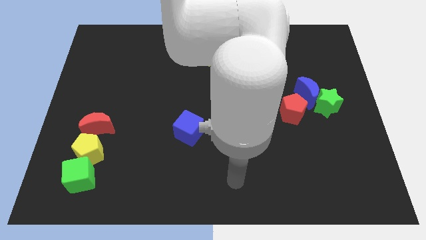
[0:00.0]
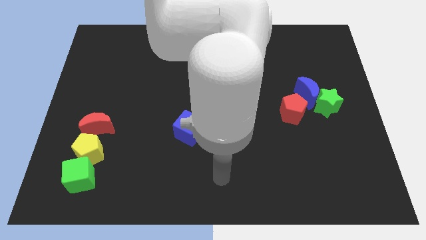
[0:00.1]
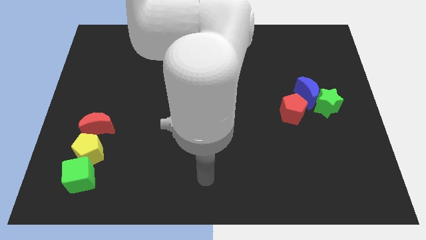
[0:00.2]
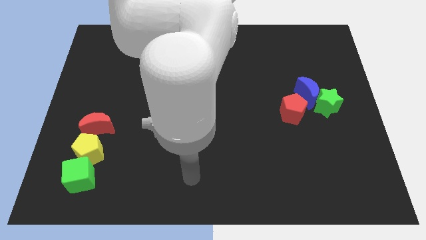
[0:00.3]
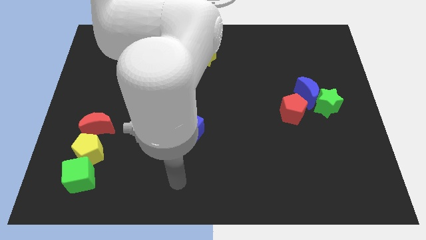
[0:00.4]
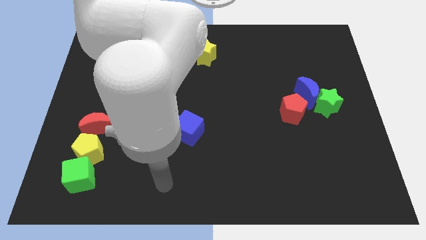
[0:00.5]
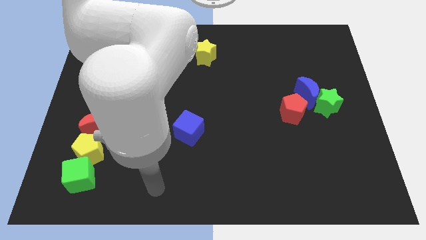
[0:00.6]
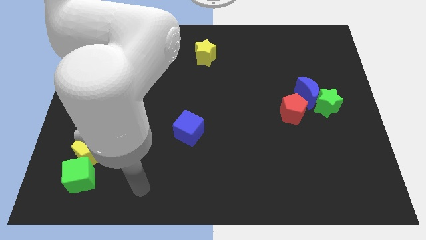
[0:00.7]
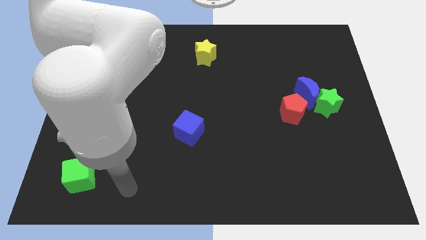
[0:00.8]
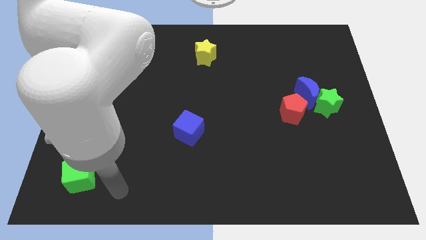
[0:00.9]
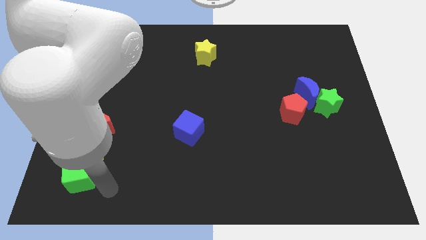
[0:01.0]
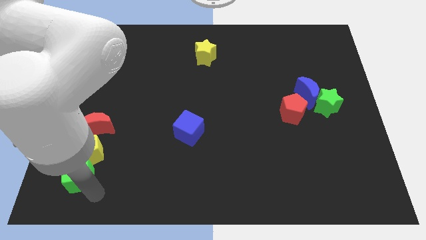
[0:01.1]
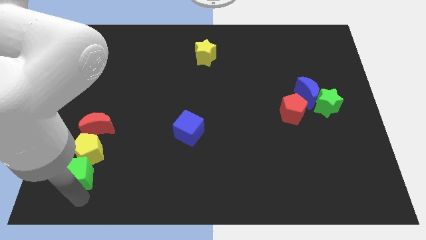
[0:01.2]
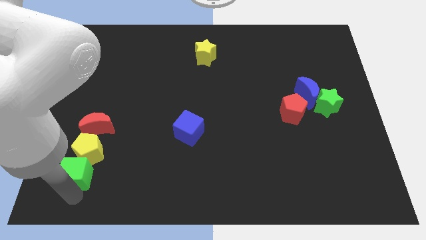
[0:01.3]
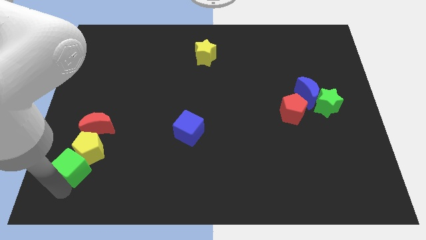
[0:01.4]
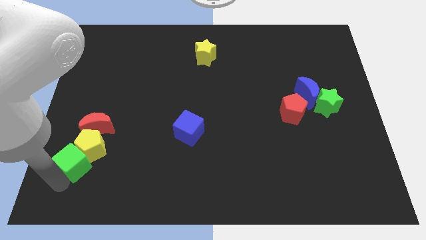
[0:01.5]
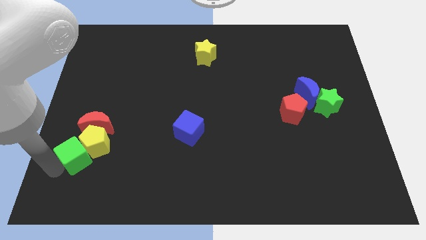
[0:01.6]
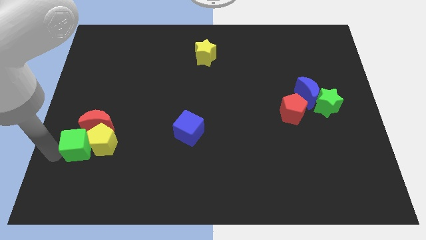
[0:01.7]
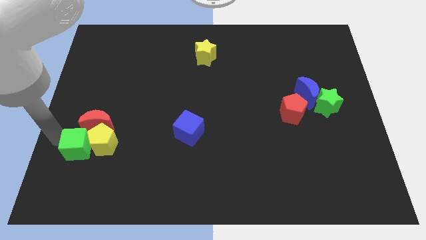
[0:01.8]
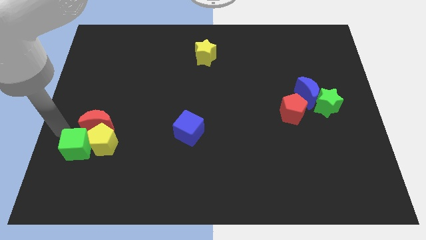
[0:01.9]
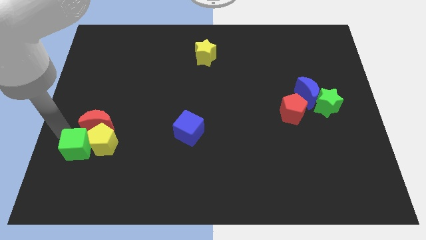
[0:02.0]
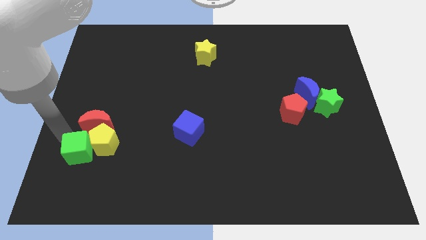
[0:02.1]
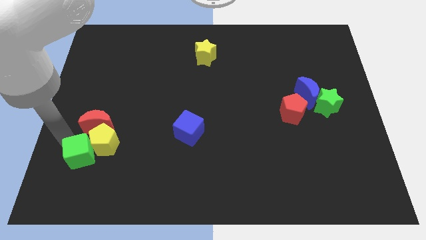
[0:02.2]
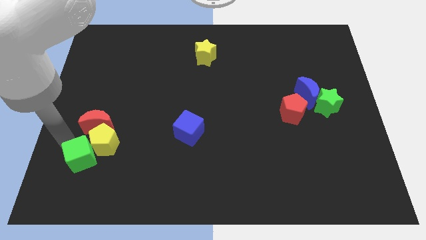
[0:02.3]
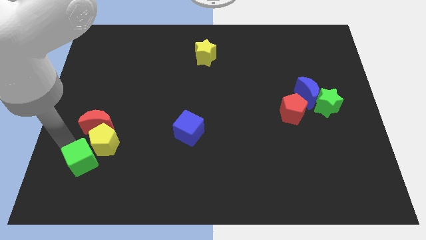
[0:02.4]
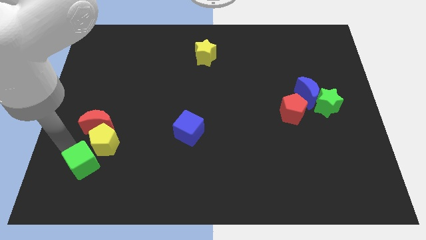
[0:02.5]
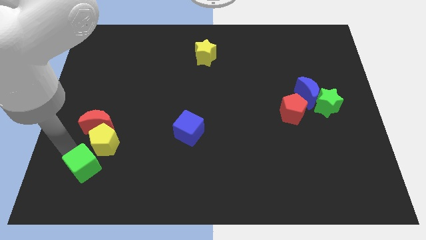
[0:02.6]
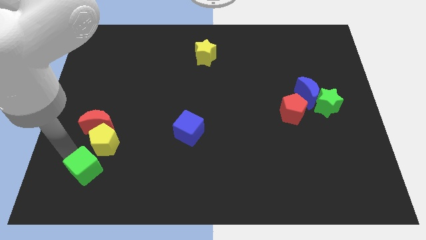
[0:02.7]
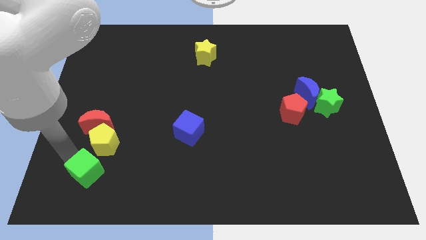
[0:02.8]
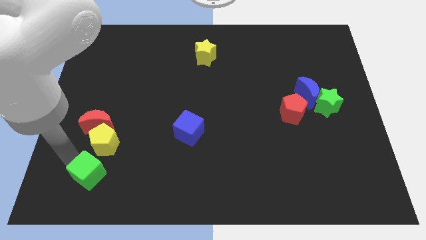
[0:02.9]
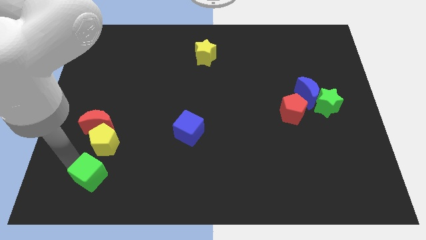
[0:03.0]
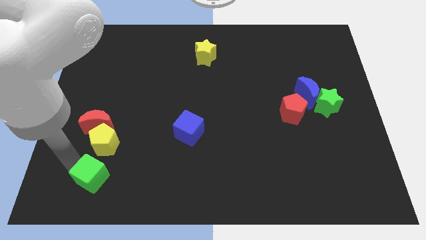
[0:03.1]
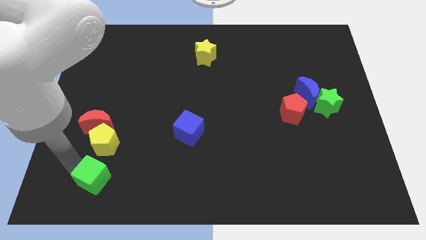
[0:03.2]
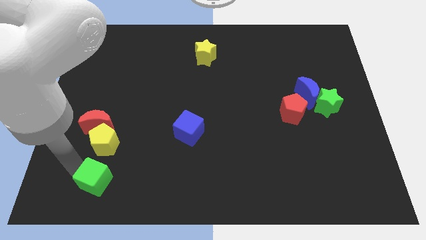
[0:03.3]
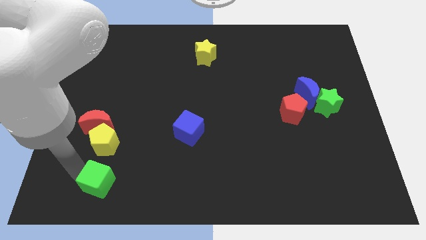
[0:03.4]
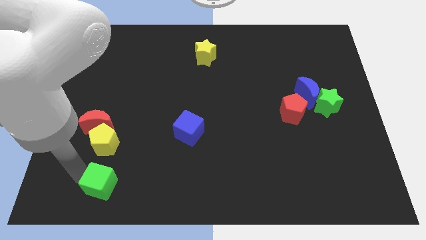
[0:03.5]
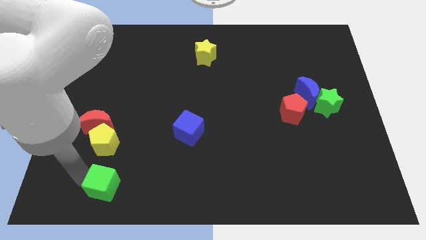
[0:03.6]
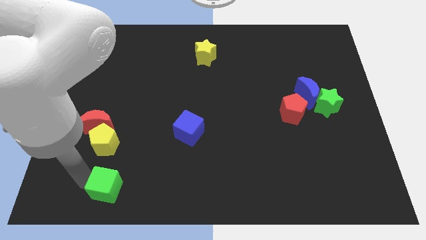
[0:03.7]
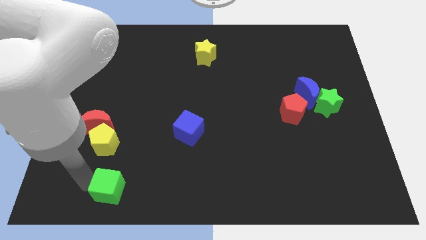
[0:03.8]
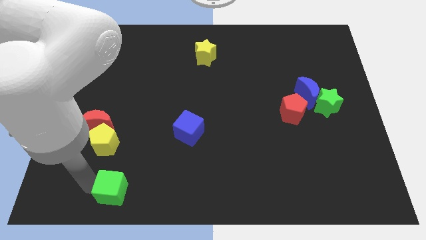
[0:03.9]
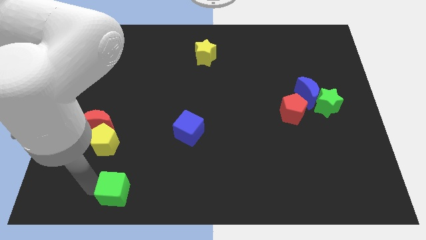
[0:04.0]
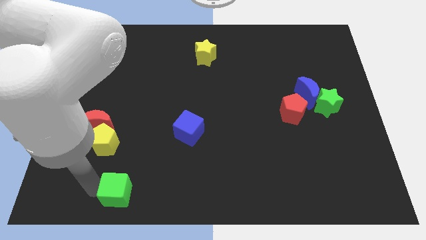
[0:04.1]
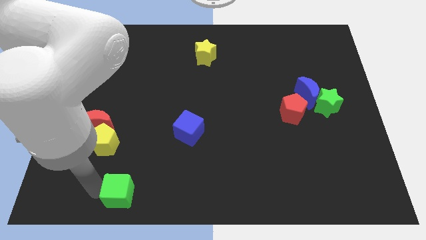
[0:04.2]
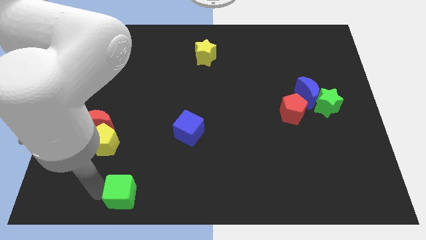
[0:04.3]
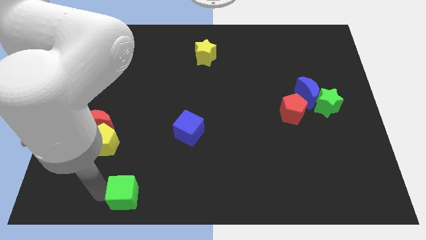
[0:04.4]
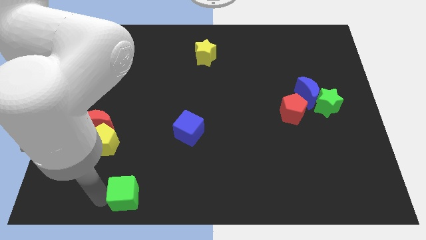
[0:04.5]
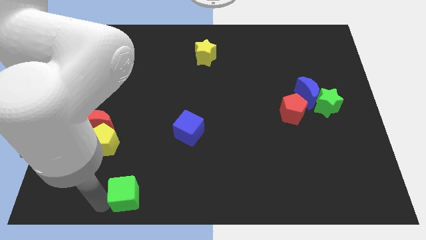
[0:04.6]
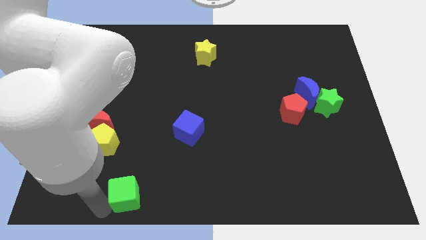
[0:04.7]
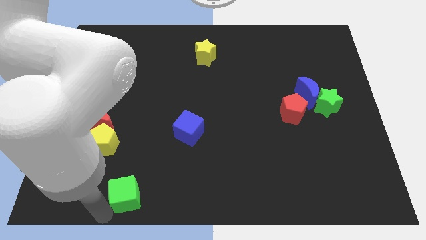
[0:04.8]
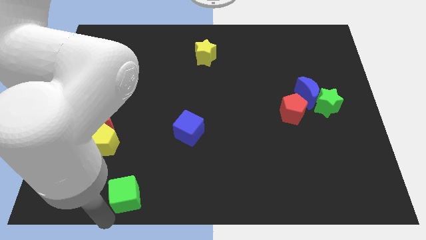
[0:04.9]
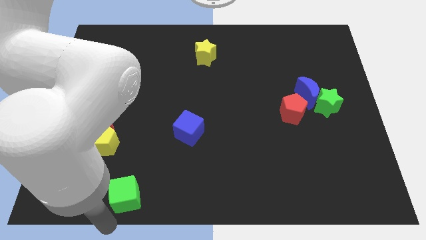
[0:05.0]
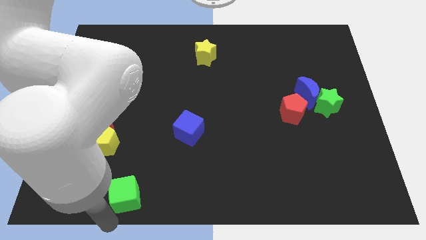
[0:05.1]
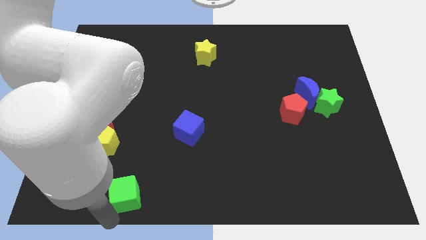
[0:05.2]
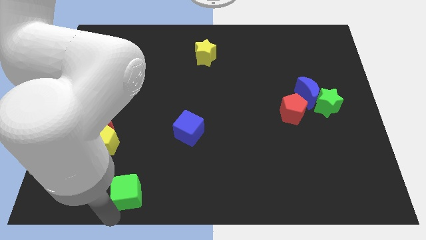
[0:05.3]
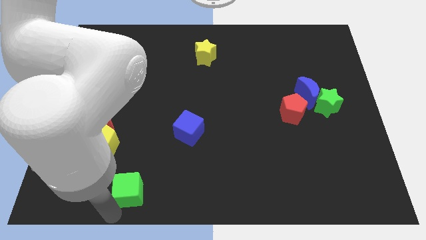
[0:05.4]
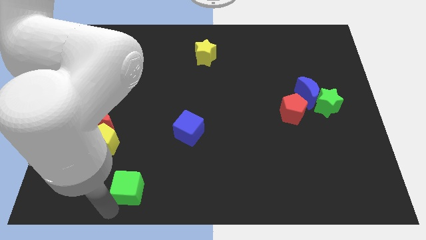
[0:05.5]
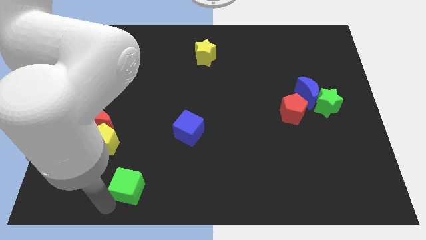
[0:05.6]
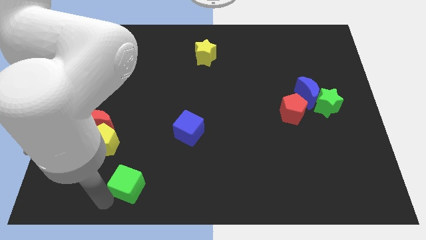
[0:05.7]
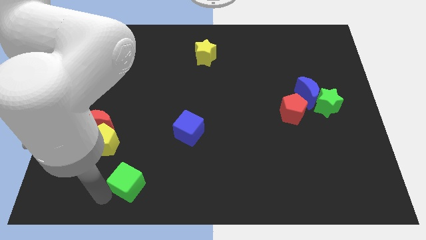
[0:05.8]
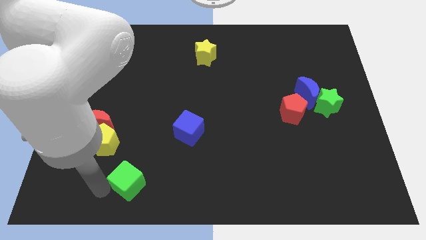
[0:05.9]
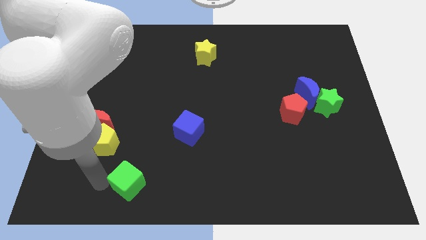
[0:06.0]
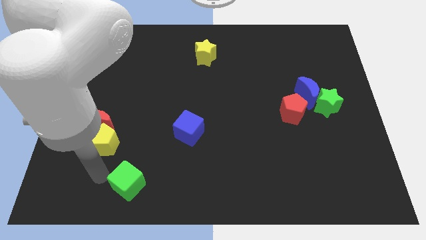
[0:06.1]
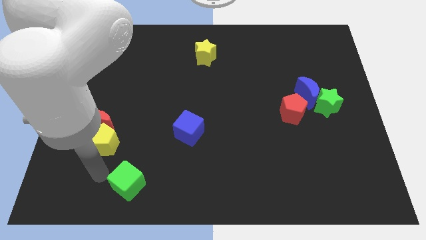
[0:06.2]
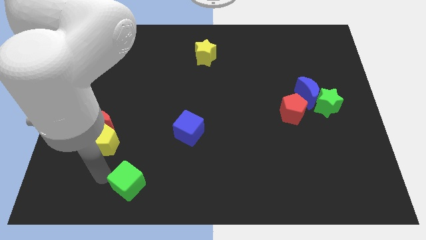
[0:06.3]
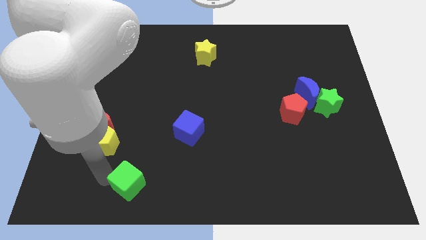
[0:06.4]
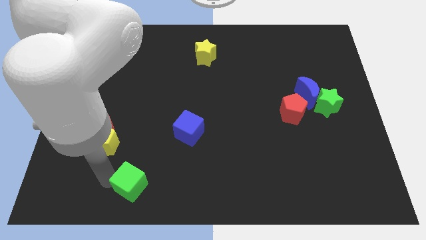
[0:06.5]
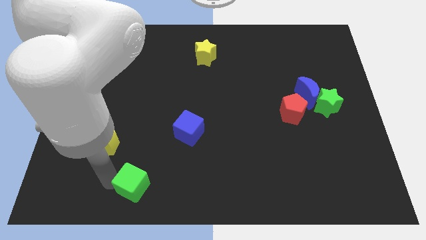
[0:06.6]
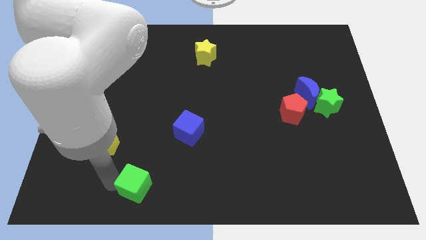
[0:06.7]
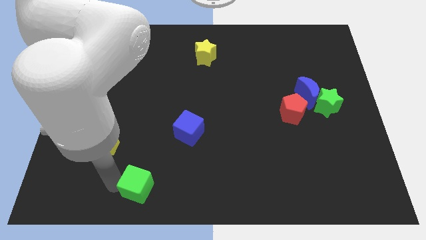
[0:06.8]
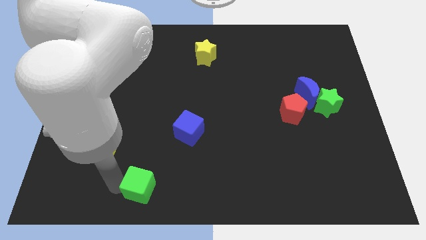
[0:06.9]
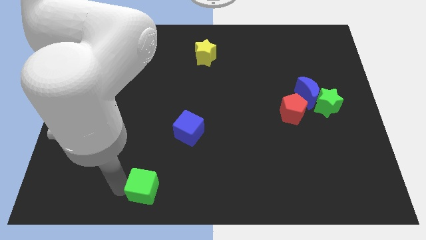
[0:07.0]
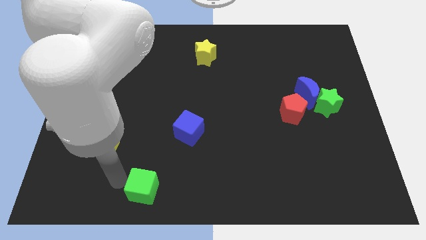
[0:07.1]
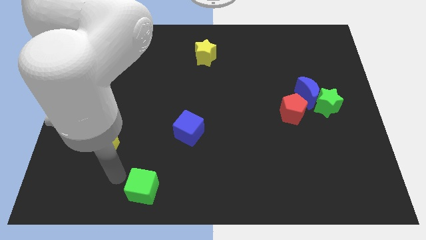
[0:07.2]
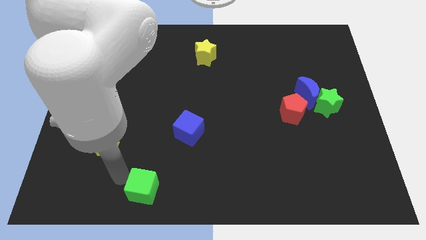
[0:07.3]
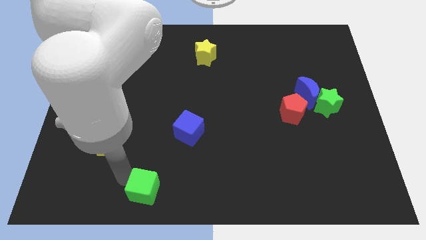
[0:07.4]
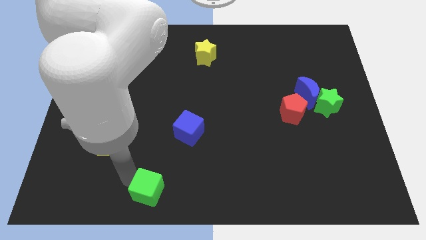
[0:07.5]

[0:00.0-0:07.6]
put the green cube to the bottom
